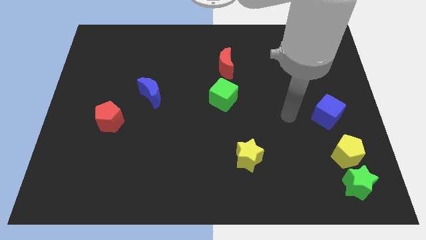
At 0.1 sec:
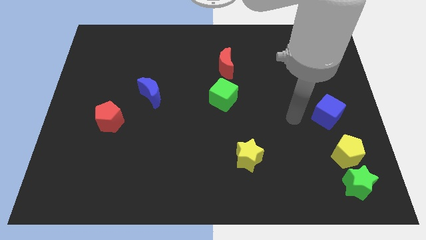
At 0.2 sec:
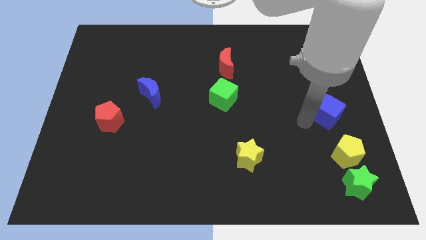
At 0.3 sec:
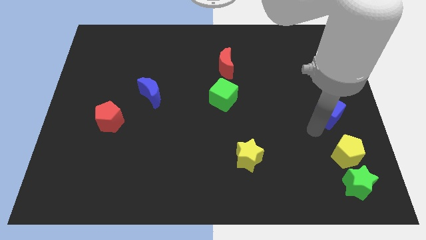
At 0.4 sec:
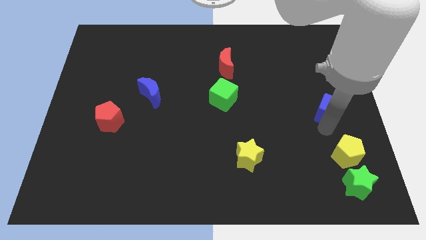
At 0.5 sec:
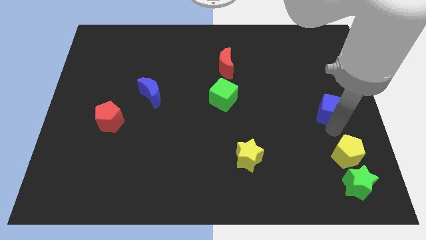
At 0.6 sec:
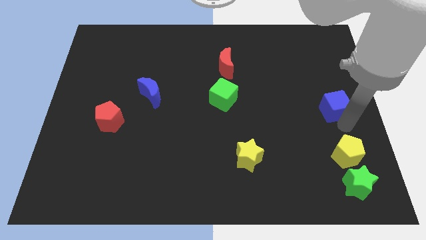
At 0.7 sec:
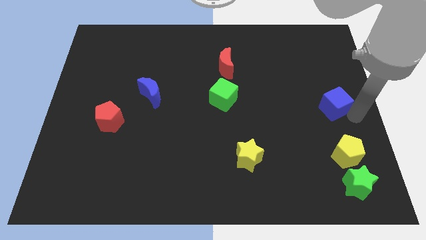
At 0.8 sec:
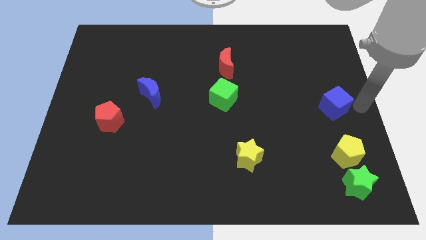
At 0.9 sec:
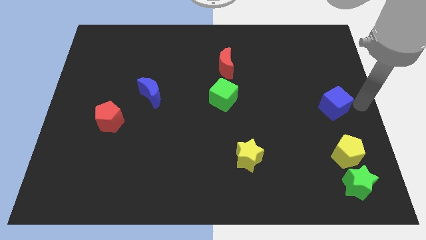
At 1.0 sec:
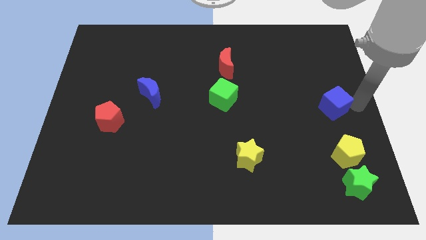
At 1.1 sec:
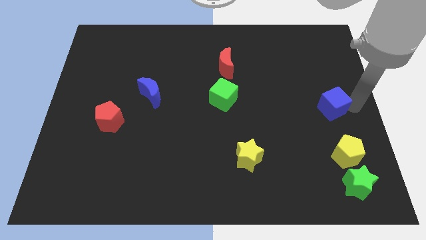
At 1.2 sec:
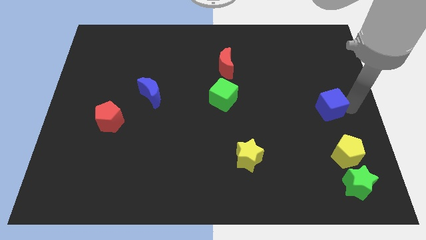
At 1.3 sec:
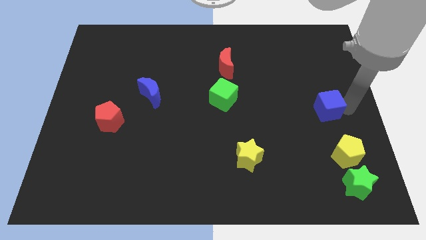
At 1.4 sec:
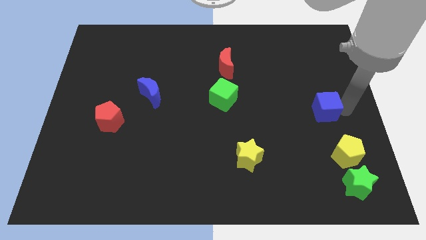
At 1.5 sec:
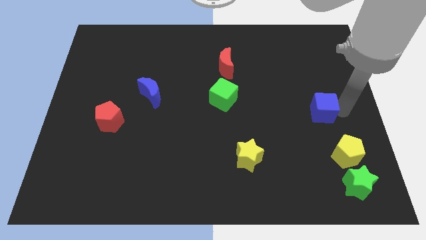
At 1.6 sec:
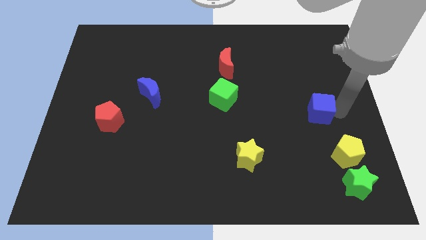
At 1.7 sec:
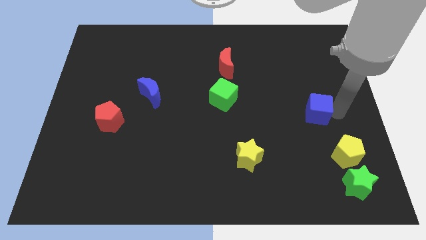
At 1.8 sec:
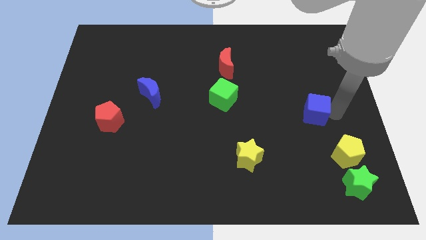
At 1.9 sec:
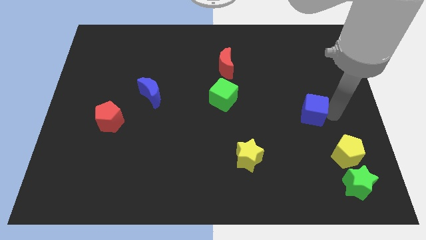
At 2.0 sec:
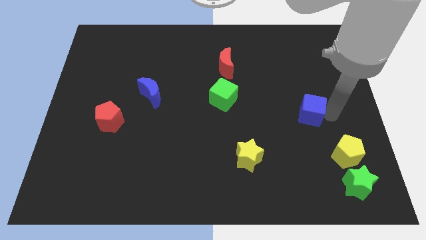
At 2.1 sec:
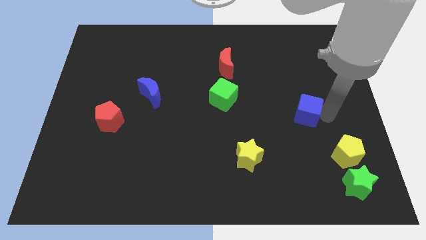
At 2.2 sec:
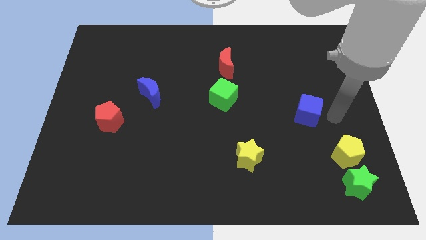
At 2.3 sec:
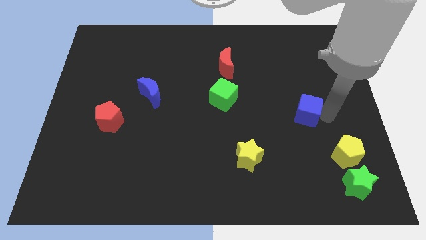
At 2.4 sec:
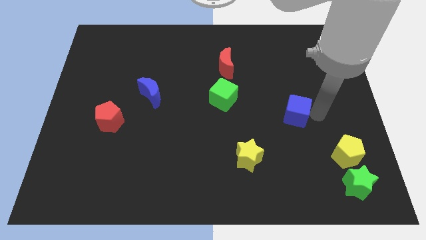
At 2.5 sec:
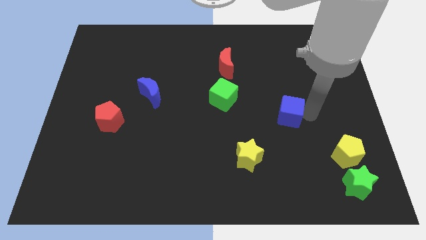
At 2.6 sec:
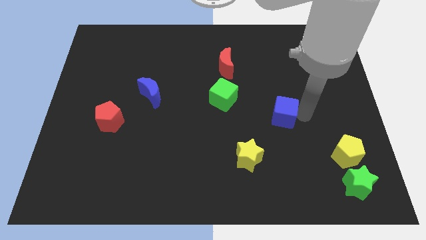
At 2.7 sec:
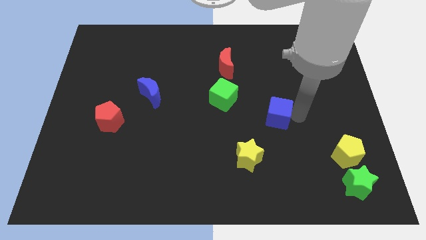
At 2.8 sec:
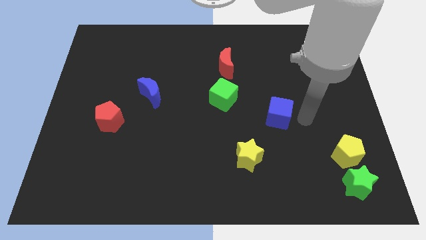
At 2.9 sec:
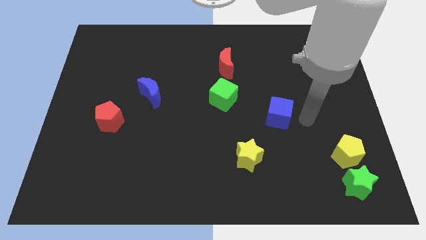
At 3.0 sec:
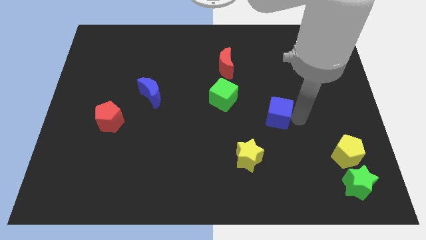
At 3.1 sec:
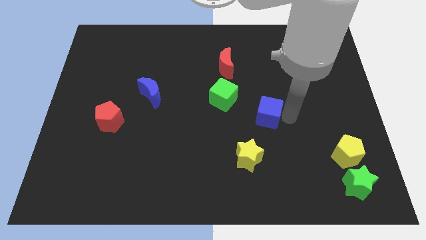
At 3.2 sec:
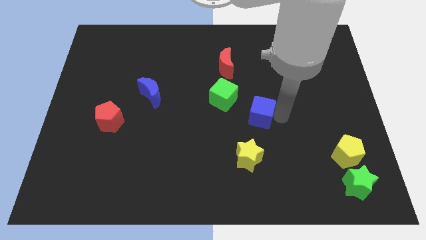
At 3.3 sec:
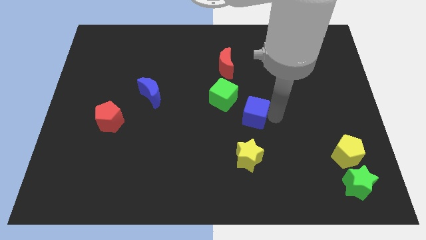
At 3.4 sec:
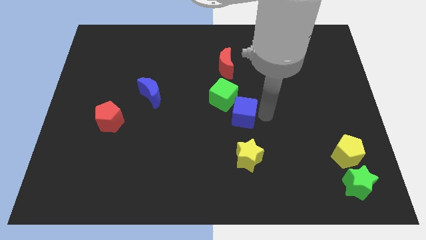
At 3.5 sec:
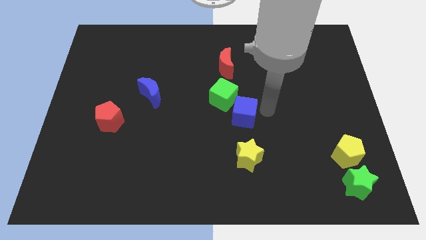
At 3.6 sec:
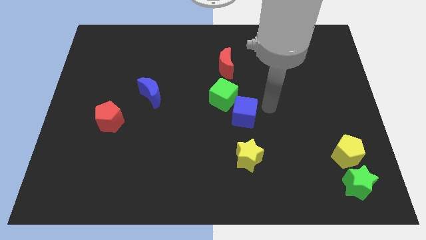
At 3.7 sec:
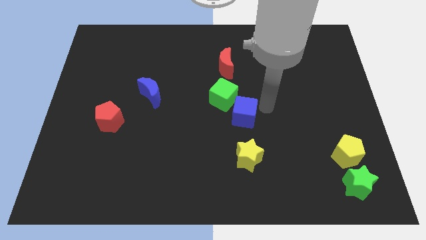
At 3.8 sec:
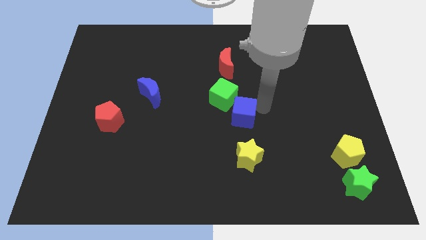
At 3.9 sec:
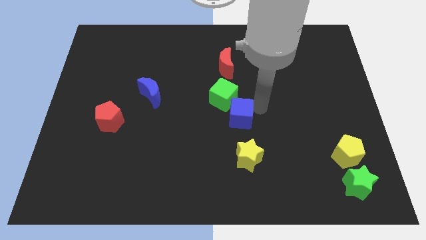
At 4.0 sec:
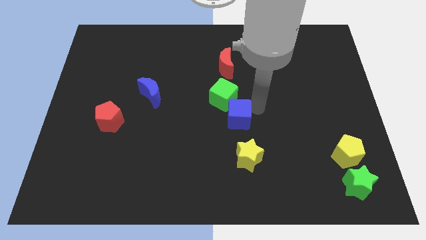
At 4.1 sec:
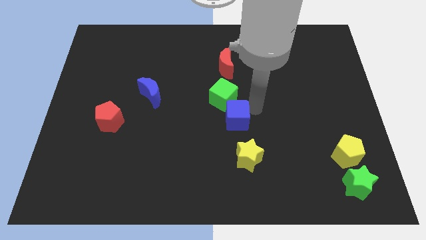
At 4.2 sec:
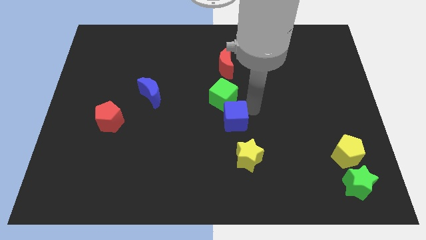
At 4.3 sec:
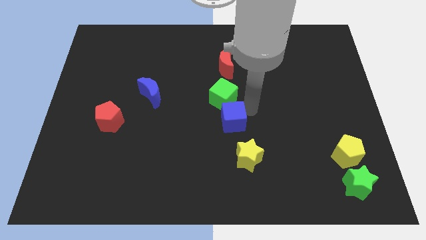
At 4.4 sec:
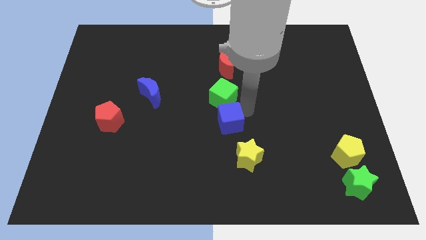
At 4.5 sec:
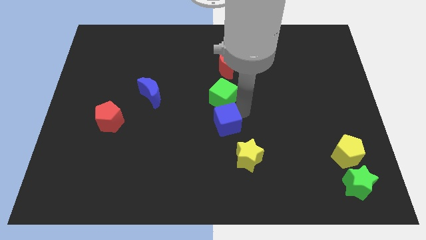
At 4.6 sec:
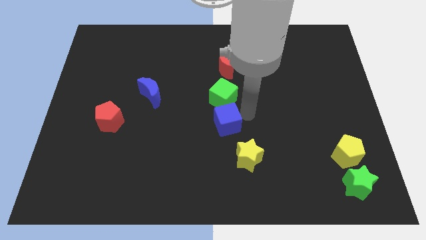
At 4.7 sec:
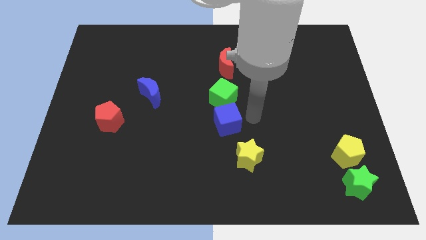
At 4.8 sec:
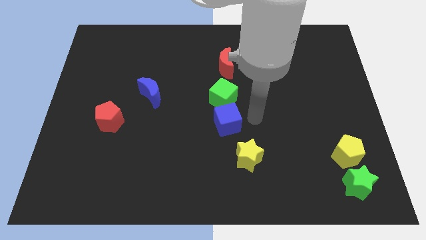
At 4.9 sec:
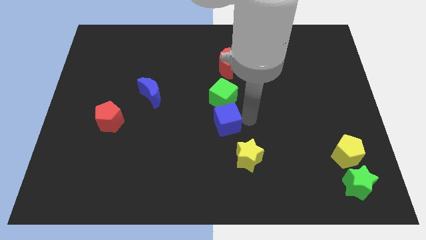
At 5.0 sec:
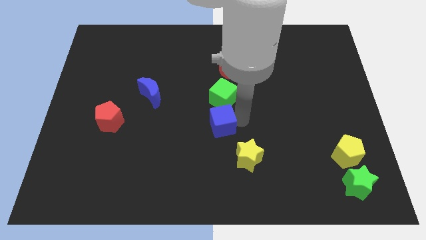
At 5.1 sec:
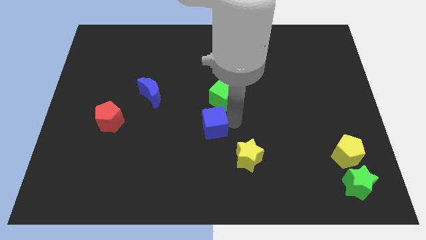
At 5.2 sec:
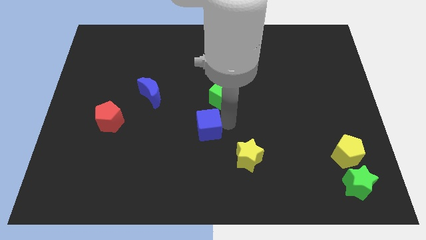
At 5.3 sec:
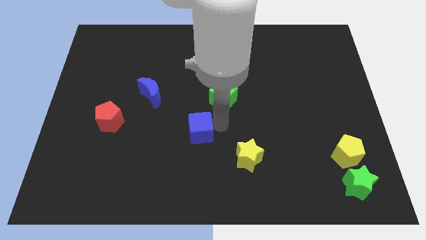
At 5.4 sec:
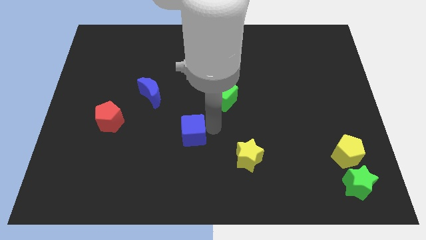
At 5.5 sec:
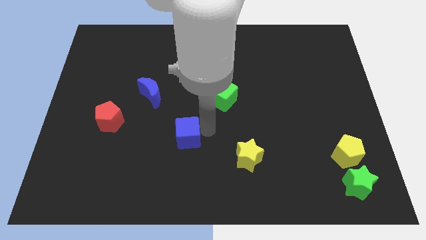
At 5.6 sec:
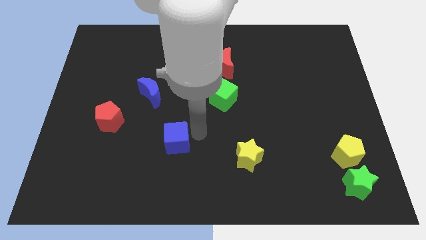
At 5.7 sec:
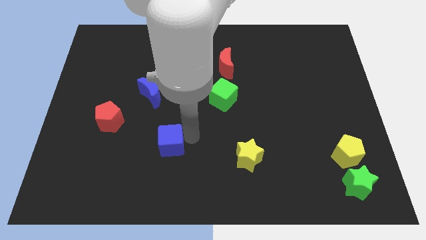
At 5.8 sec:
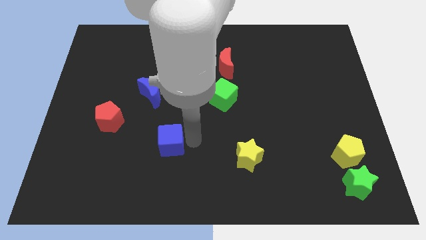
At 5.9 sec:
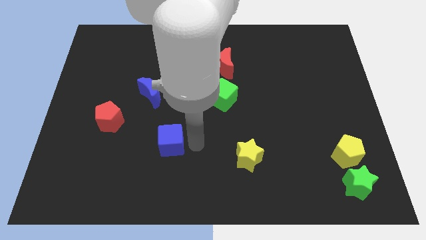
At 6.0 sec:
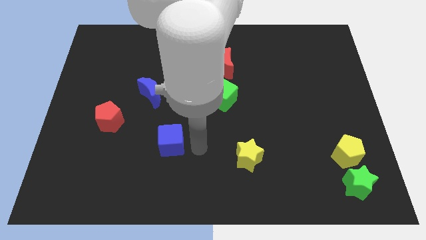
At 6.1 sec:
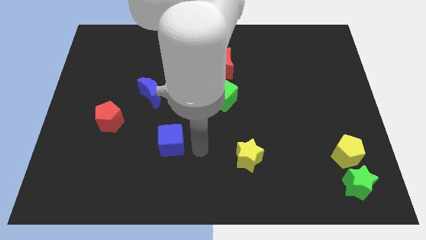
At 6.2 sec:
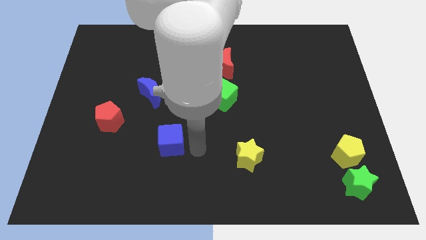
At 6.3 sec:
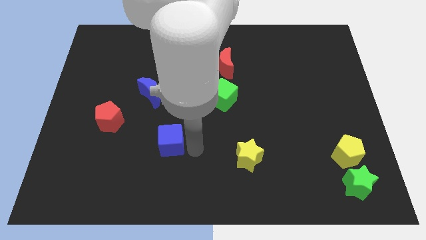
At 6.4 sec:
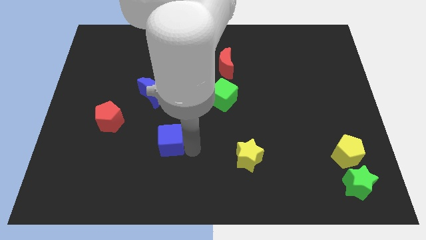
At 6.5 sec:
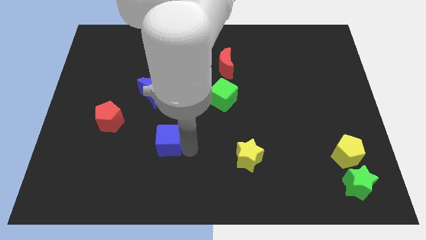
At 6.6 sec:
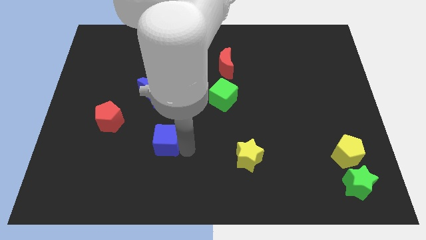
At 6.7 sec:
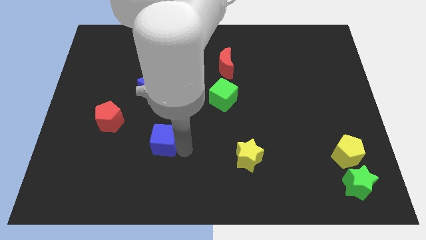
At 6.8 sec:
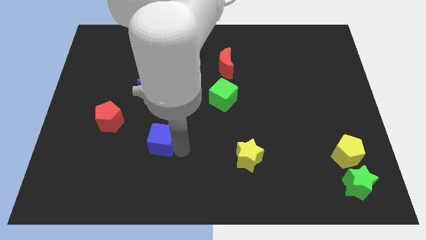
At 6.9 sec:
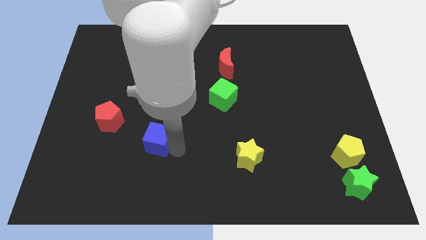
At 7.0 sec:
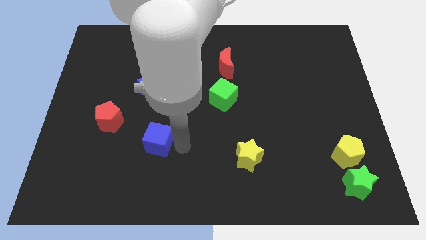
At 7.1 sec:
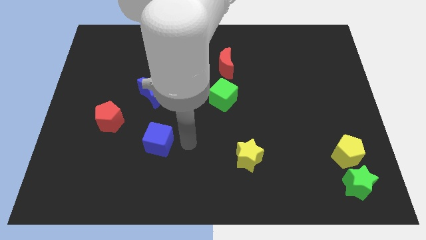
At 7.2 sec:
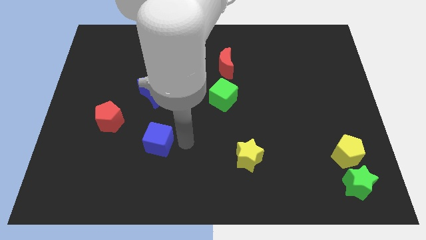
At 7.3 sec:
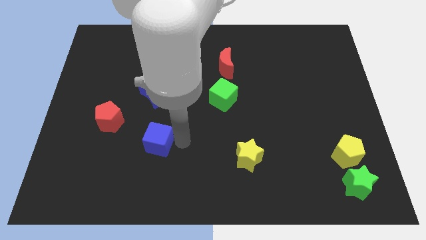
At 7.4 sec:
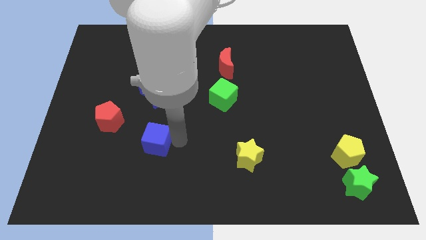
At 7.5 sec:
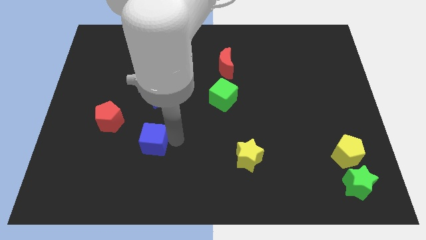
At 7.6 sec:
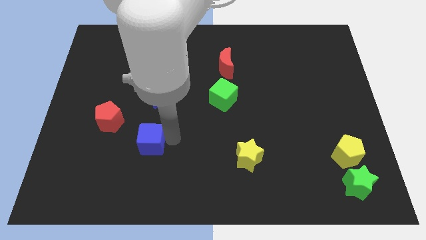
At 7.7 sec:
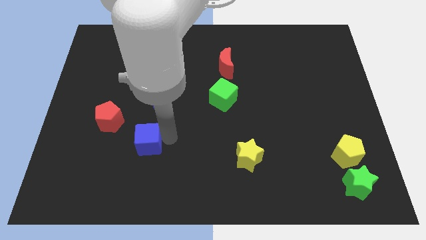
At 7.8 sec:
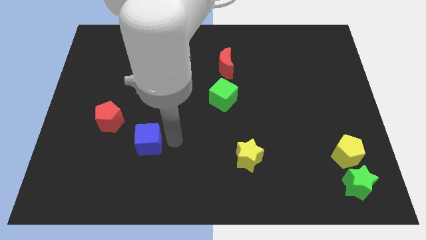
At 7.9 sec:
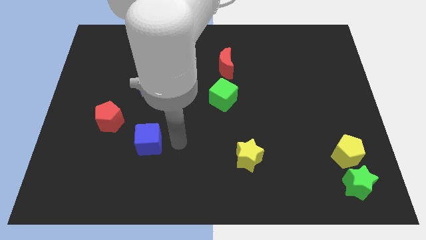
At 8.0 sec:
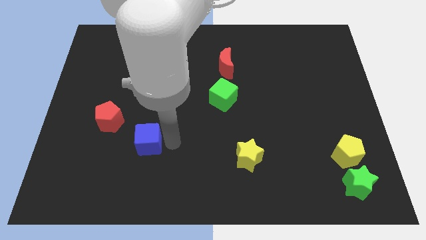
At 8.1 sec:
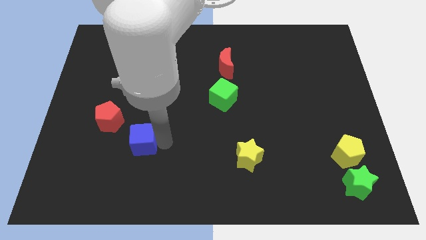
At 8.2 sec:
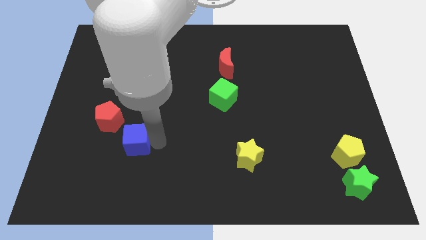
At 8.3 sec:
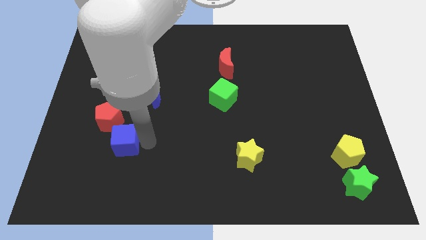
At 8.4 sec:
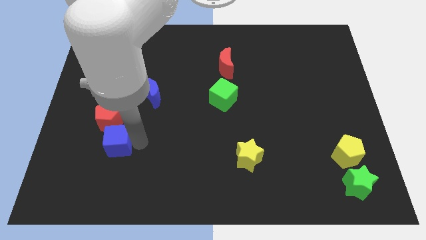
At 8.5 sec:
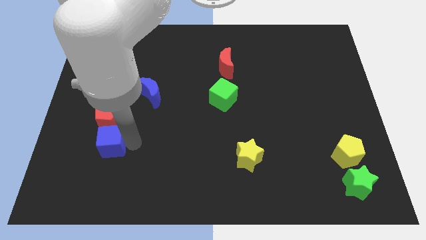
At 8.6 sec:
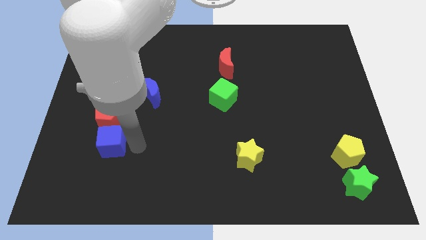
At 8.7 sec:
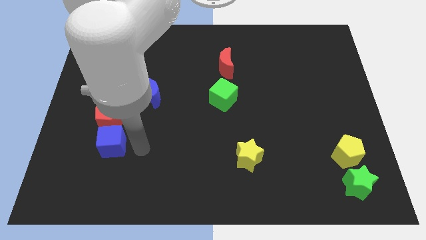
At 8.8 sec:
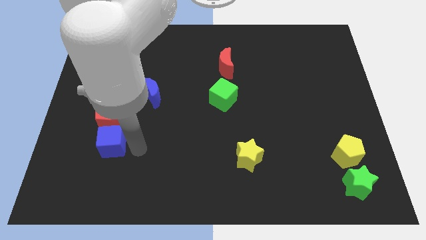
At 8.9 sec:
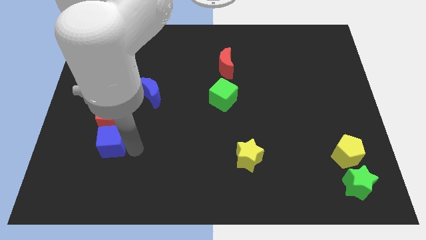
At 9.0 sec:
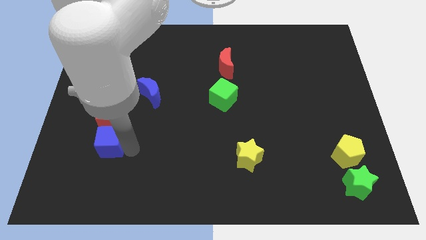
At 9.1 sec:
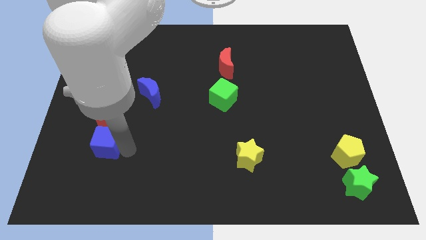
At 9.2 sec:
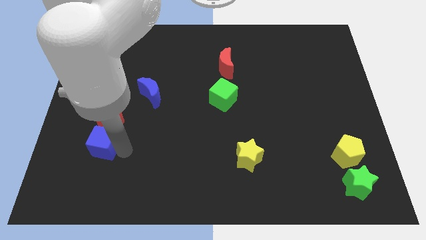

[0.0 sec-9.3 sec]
move the blue cube to the bottom left of the red pentagon
